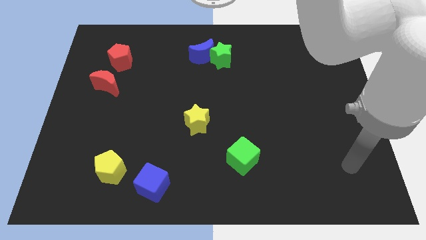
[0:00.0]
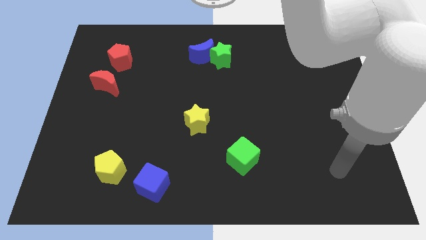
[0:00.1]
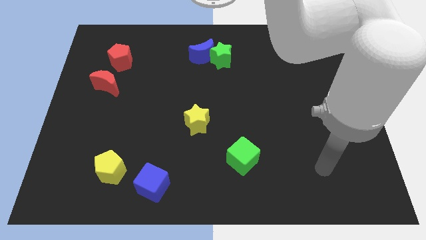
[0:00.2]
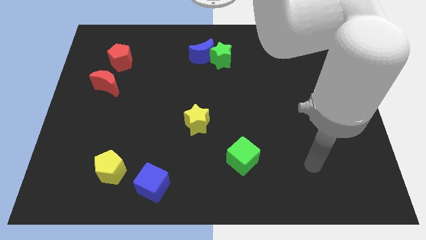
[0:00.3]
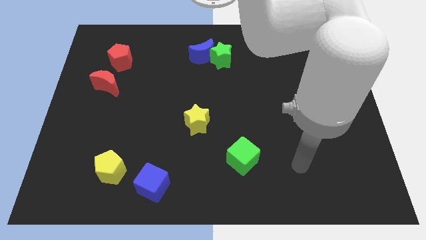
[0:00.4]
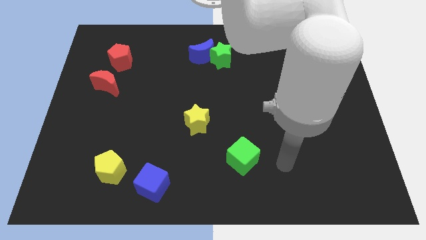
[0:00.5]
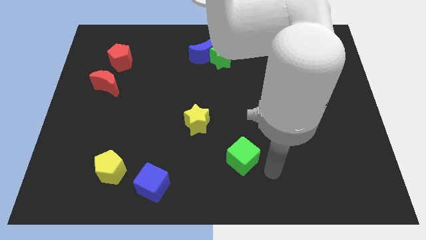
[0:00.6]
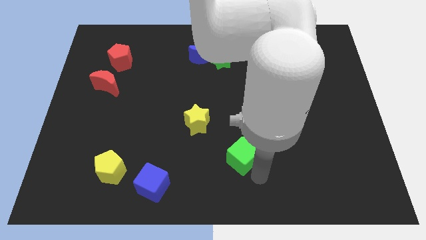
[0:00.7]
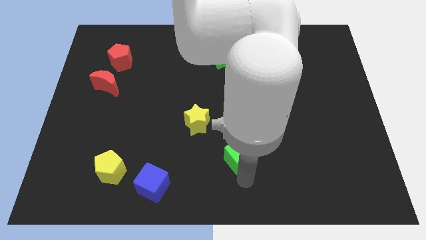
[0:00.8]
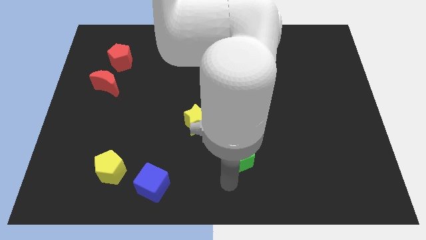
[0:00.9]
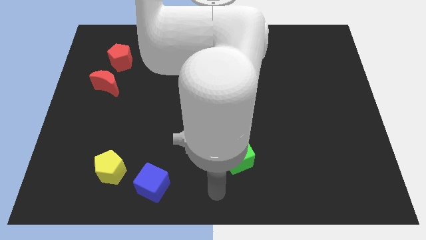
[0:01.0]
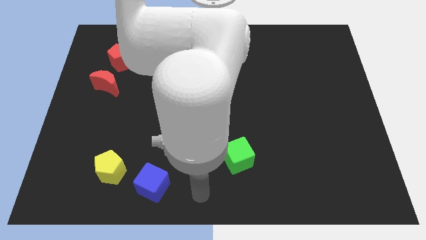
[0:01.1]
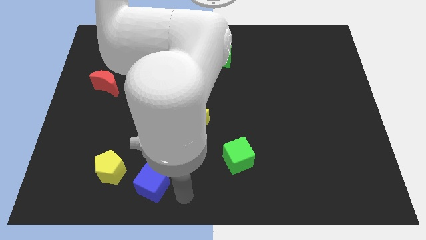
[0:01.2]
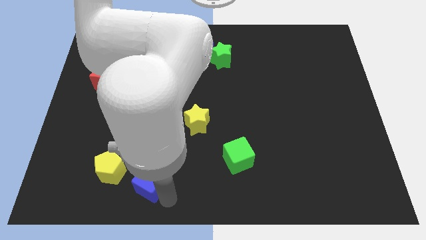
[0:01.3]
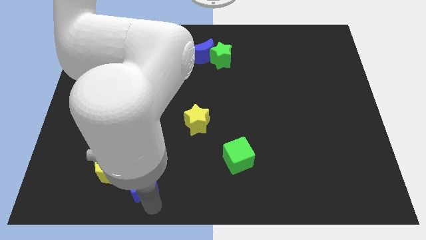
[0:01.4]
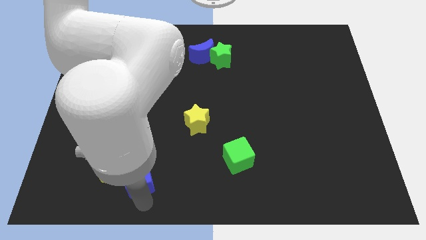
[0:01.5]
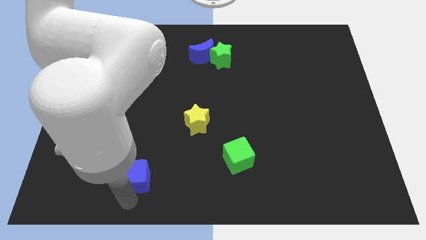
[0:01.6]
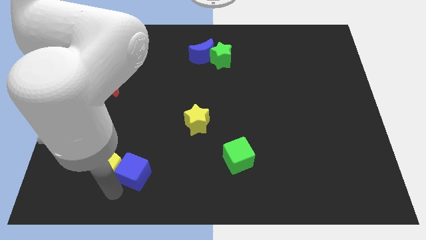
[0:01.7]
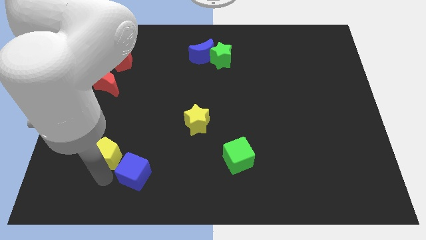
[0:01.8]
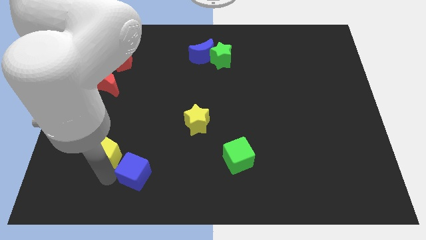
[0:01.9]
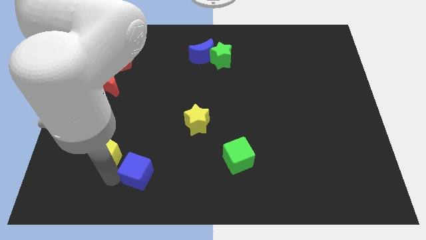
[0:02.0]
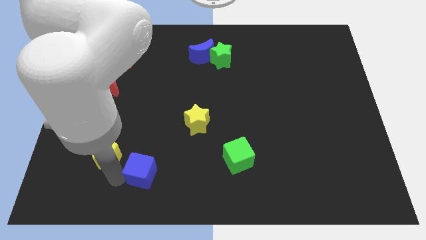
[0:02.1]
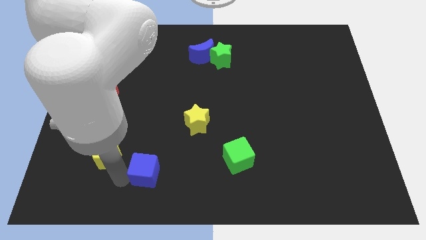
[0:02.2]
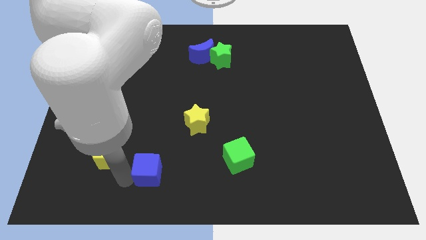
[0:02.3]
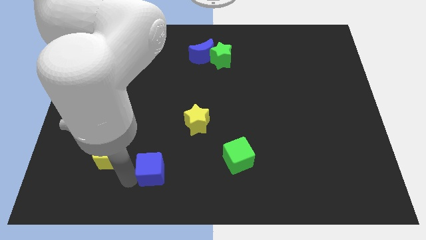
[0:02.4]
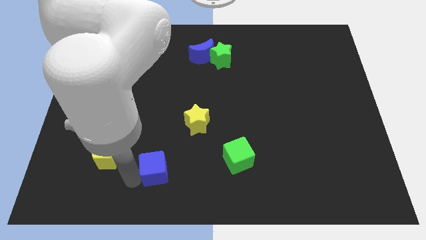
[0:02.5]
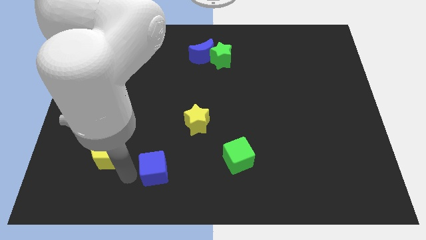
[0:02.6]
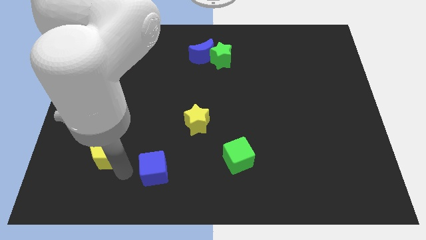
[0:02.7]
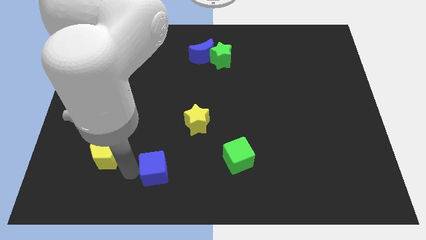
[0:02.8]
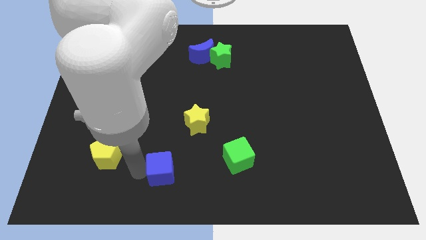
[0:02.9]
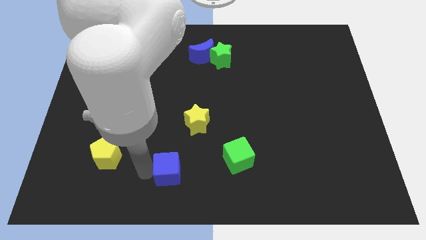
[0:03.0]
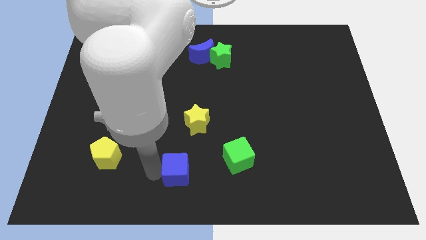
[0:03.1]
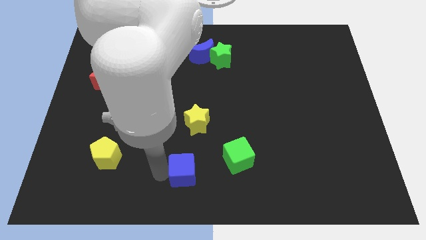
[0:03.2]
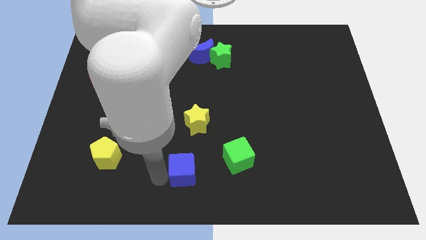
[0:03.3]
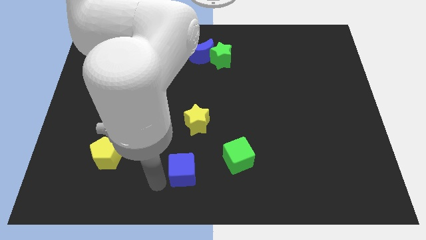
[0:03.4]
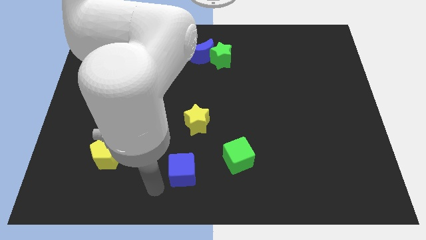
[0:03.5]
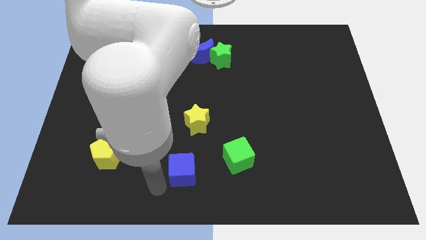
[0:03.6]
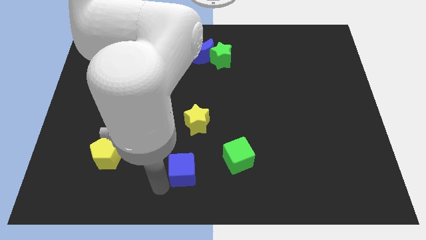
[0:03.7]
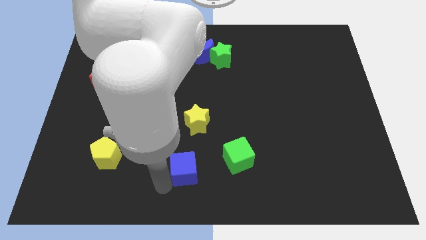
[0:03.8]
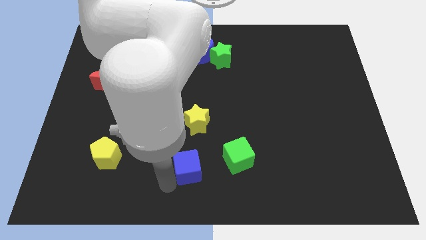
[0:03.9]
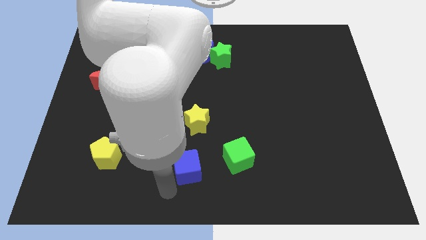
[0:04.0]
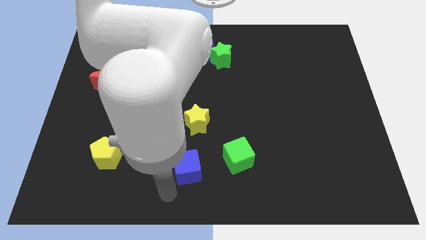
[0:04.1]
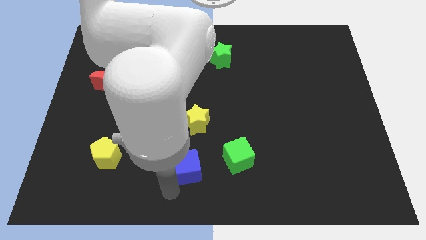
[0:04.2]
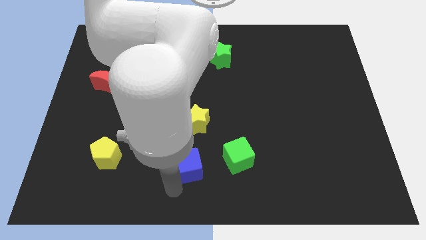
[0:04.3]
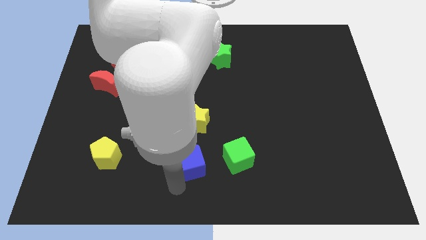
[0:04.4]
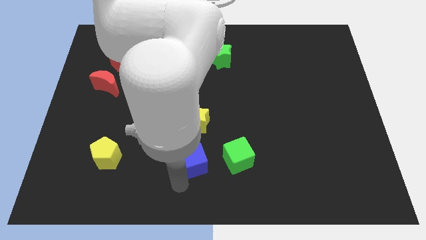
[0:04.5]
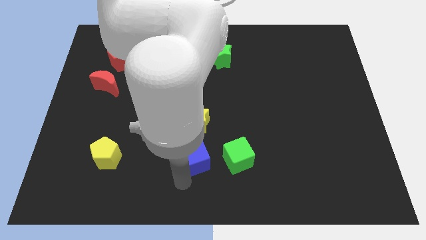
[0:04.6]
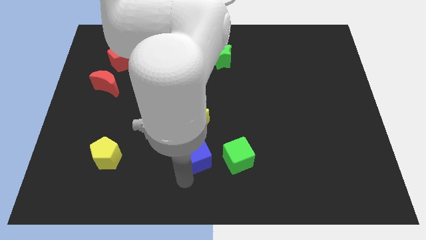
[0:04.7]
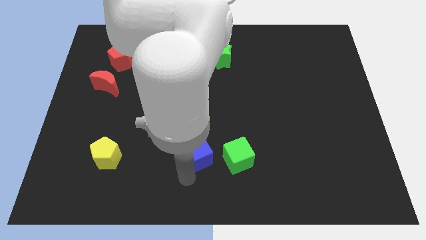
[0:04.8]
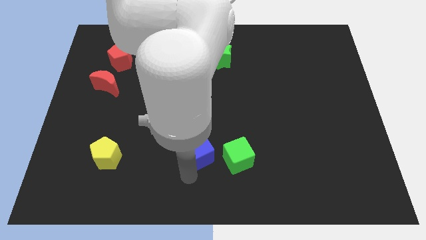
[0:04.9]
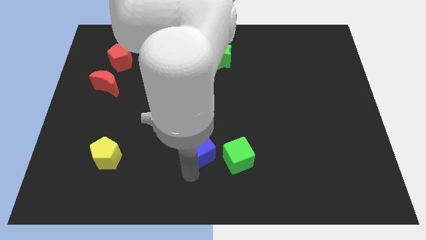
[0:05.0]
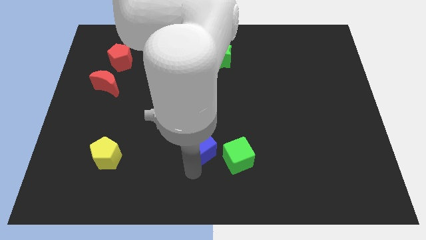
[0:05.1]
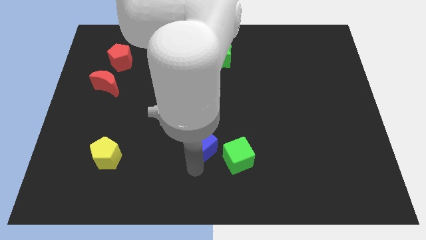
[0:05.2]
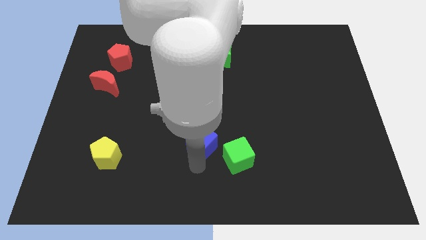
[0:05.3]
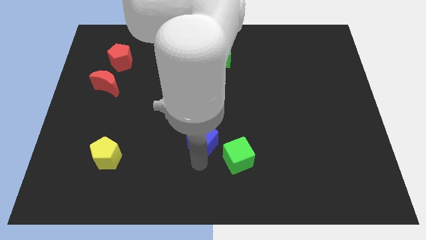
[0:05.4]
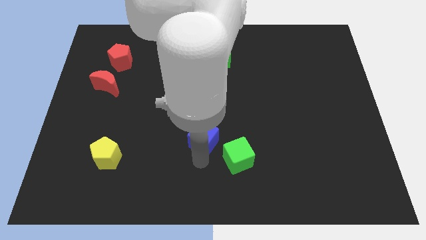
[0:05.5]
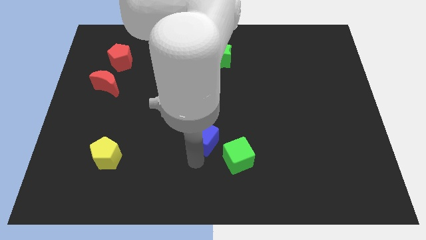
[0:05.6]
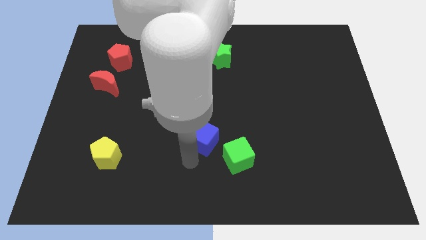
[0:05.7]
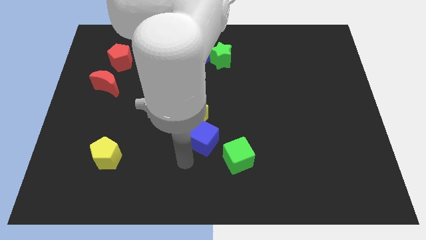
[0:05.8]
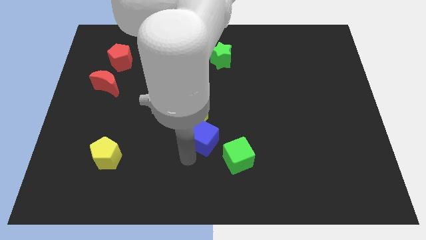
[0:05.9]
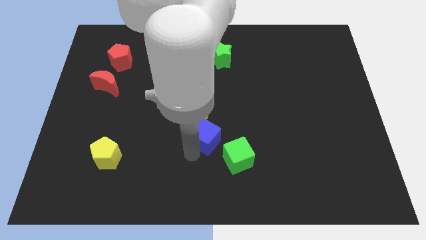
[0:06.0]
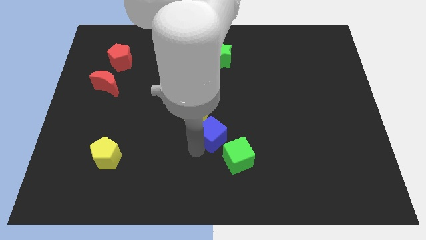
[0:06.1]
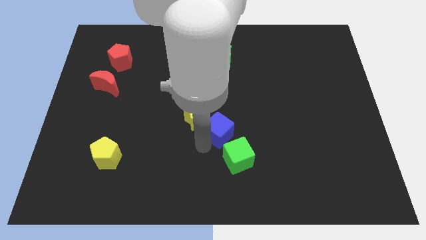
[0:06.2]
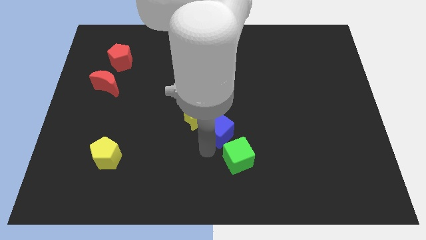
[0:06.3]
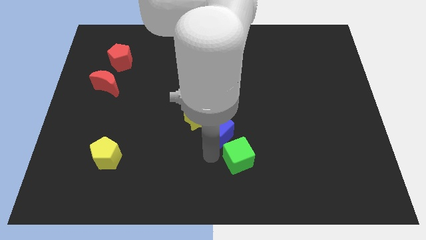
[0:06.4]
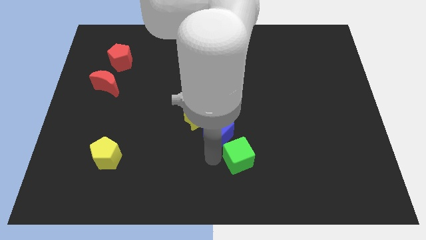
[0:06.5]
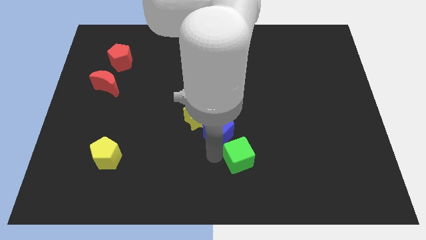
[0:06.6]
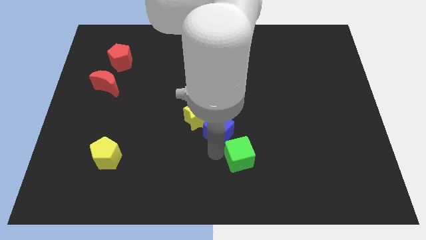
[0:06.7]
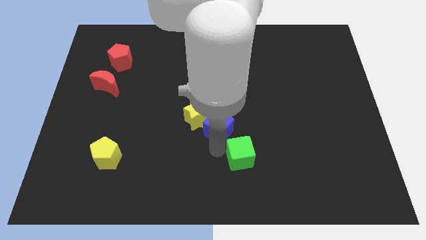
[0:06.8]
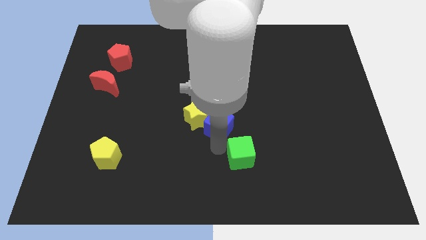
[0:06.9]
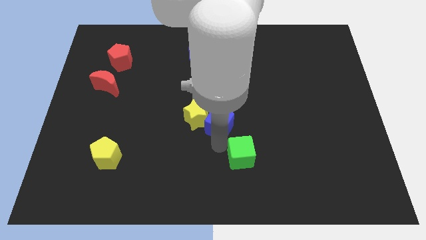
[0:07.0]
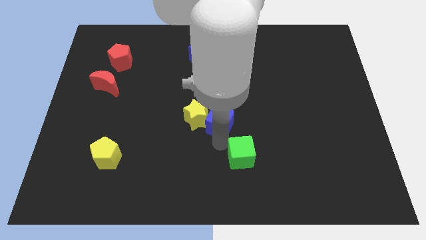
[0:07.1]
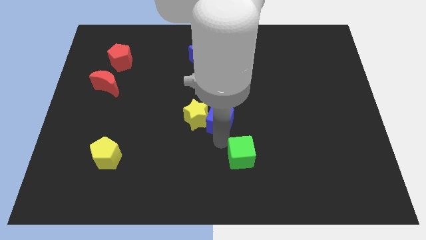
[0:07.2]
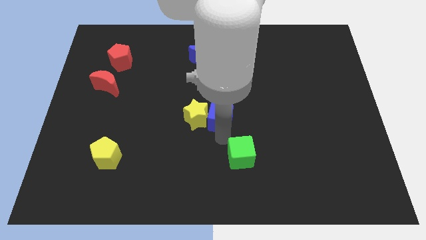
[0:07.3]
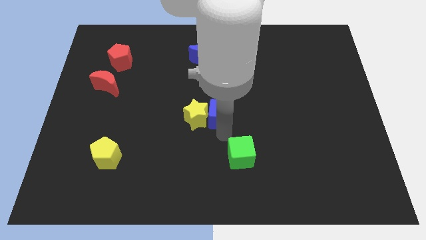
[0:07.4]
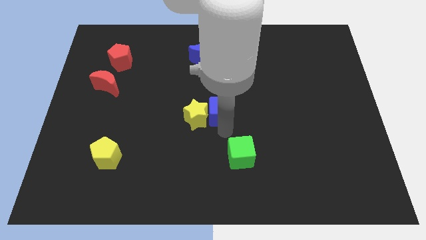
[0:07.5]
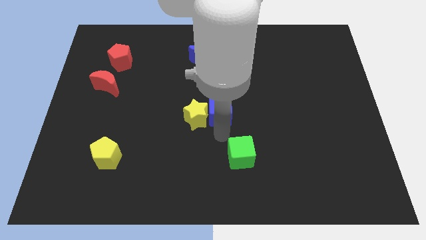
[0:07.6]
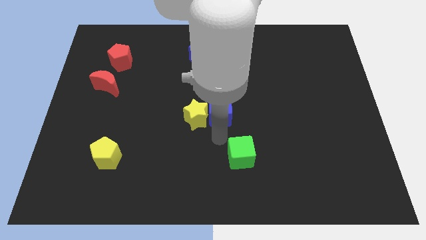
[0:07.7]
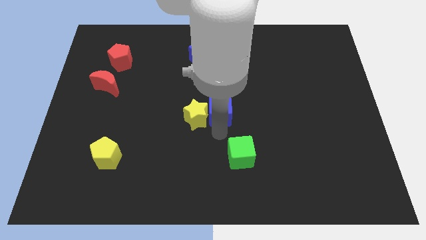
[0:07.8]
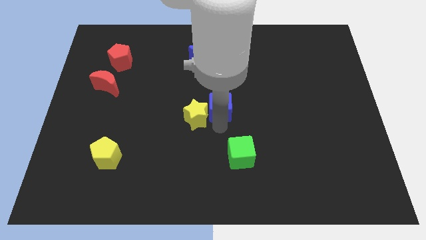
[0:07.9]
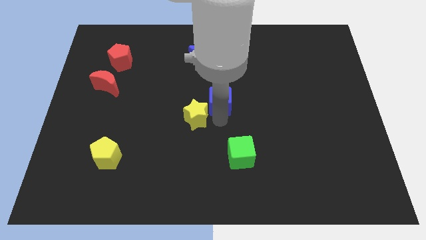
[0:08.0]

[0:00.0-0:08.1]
slide the blue cube to the bottom side of the green star
